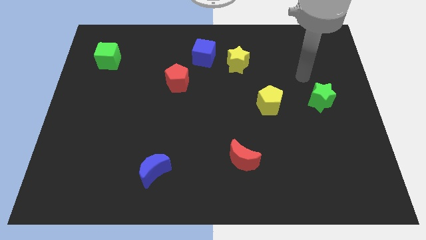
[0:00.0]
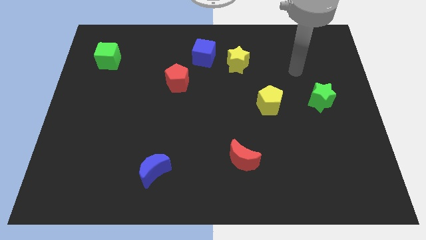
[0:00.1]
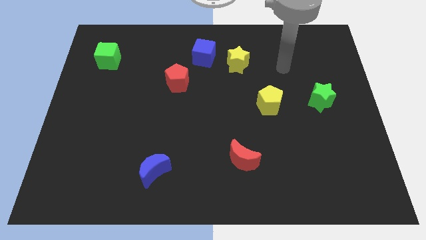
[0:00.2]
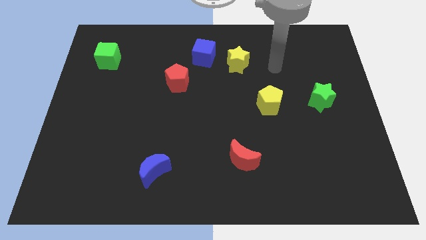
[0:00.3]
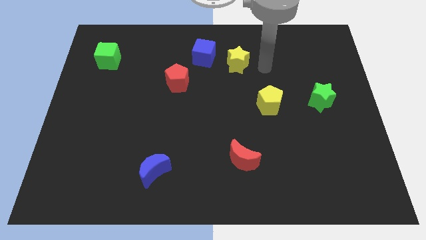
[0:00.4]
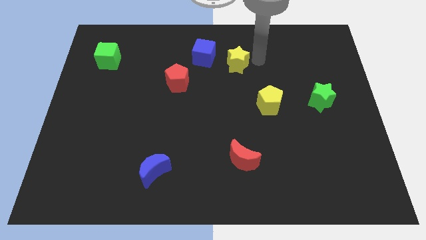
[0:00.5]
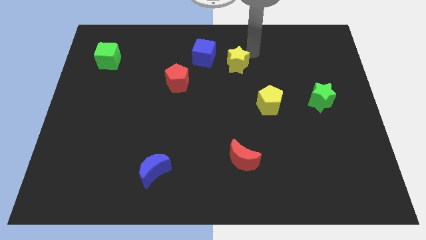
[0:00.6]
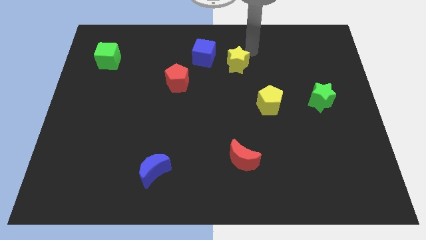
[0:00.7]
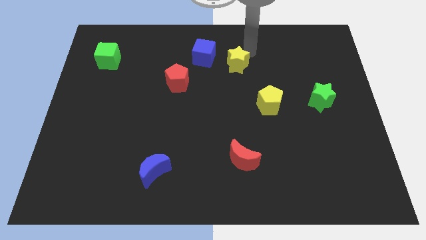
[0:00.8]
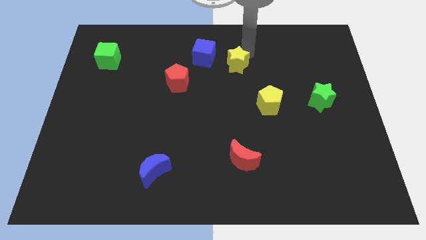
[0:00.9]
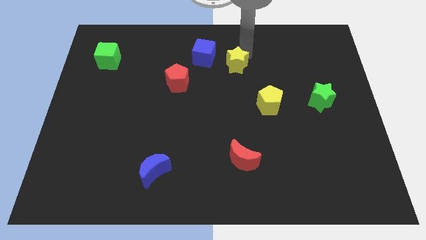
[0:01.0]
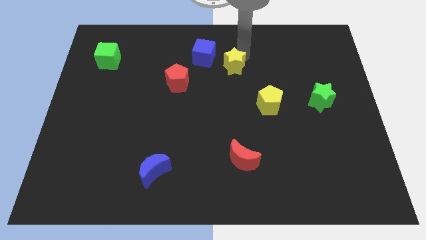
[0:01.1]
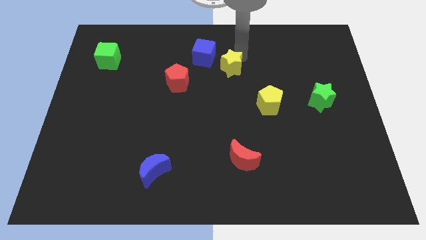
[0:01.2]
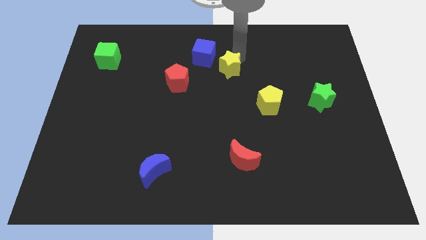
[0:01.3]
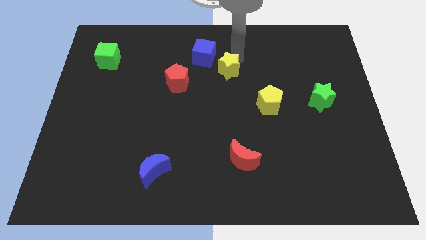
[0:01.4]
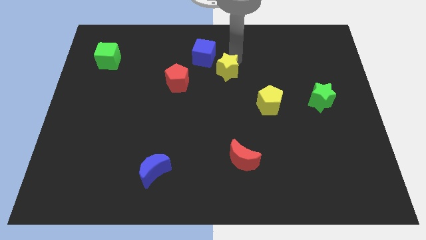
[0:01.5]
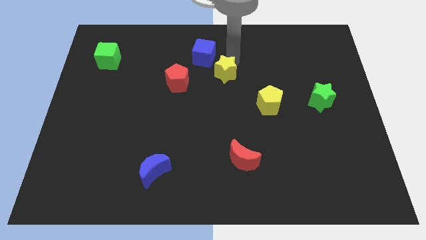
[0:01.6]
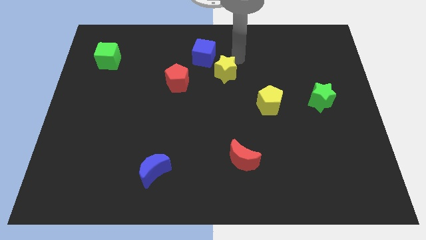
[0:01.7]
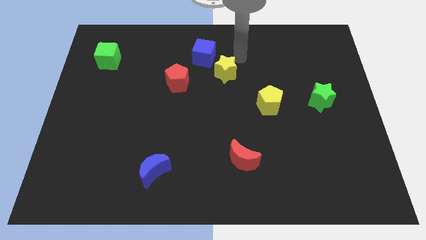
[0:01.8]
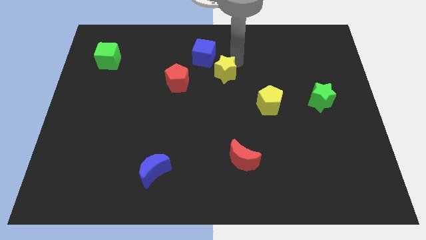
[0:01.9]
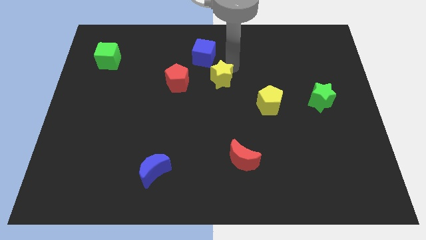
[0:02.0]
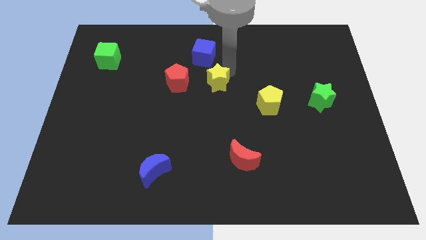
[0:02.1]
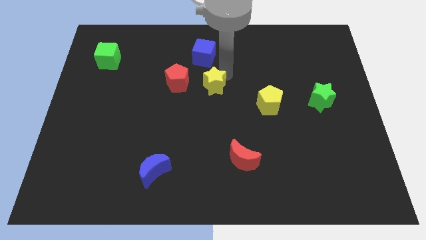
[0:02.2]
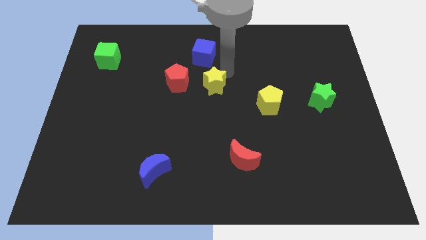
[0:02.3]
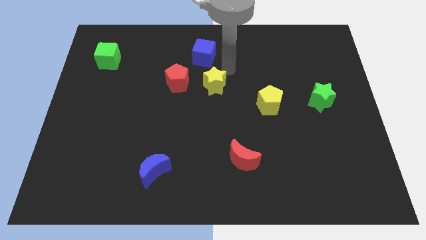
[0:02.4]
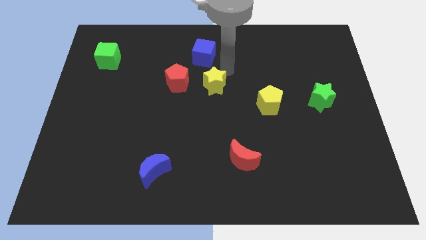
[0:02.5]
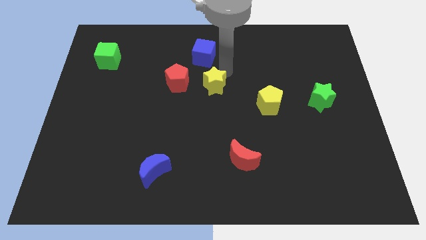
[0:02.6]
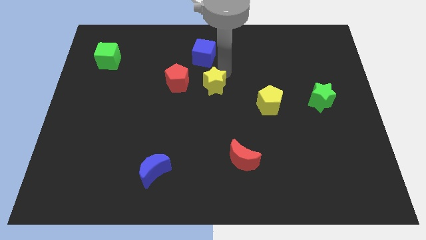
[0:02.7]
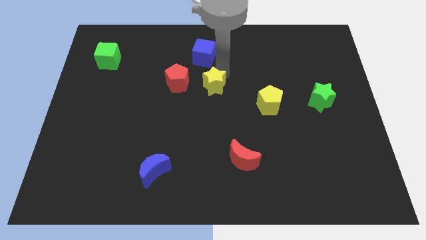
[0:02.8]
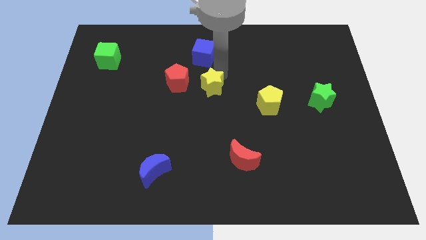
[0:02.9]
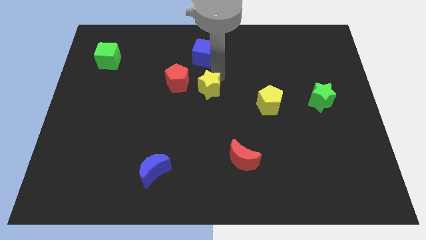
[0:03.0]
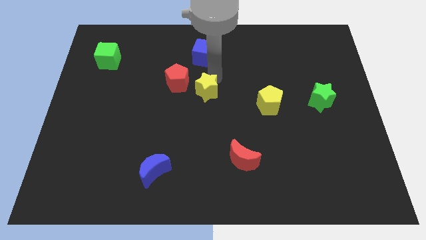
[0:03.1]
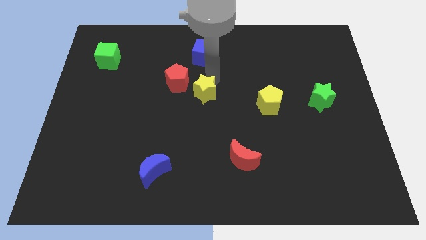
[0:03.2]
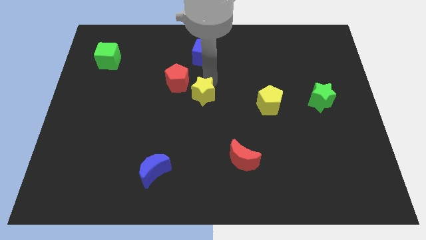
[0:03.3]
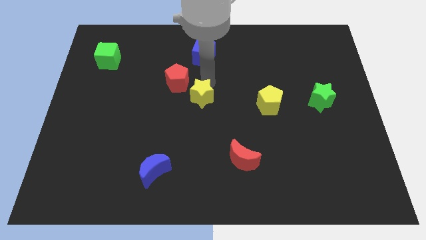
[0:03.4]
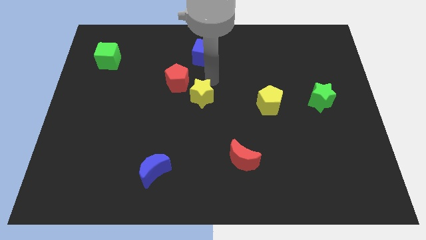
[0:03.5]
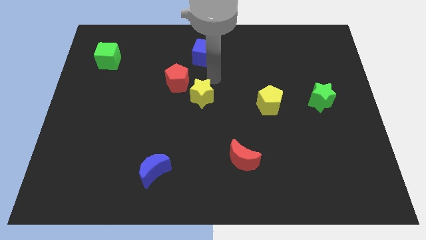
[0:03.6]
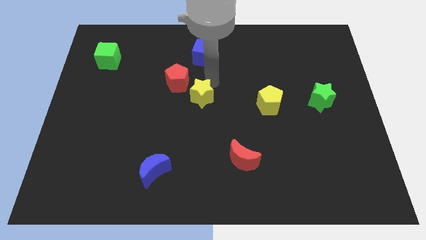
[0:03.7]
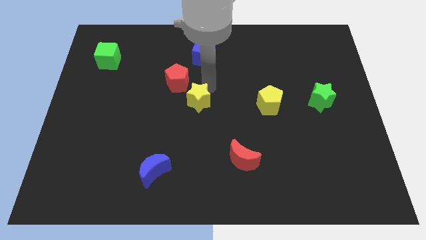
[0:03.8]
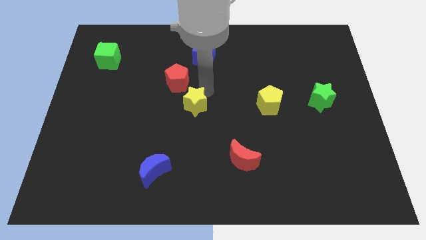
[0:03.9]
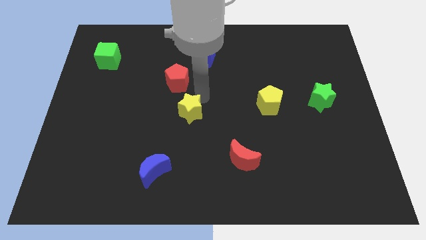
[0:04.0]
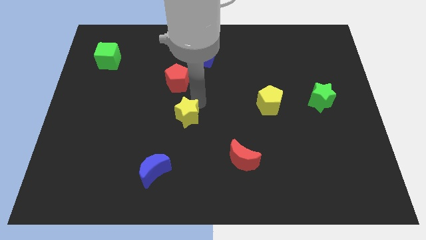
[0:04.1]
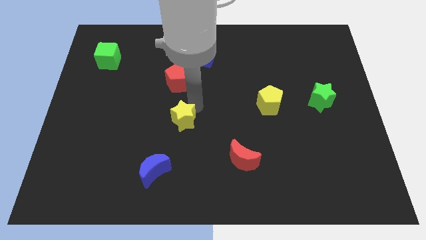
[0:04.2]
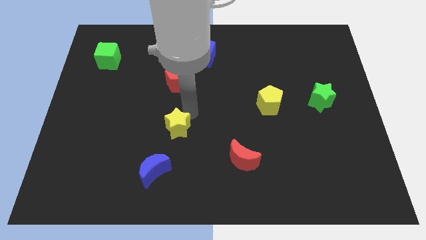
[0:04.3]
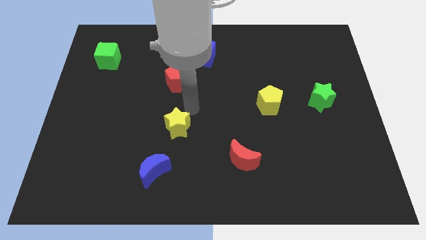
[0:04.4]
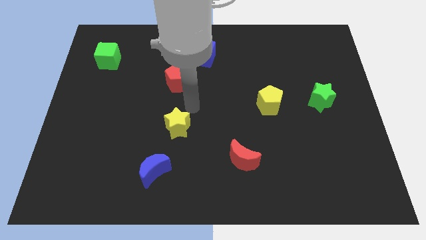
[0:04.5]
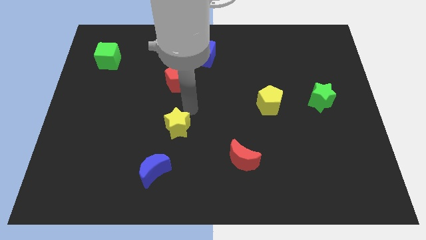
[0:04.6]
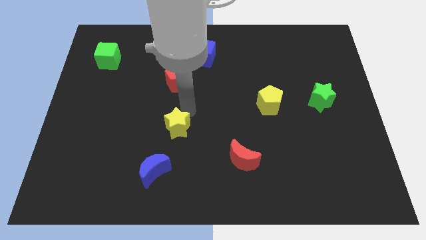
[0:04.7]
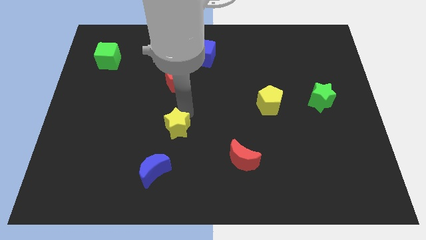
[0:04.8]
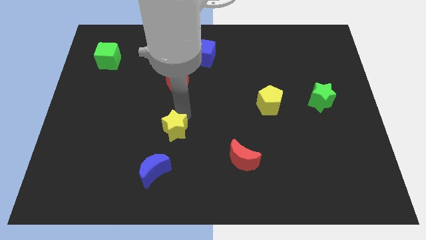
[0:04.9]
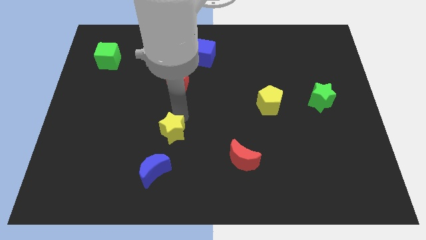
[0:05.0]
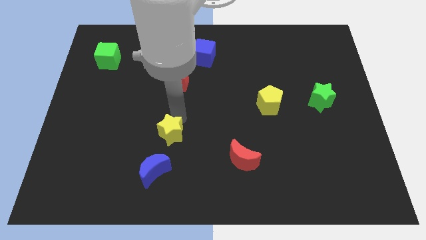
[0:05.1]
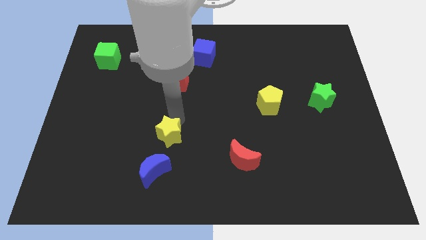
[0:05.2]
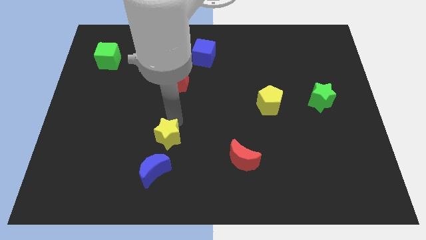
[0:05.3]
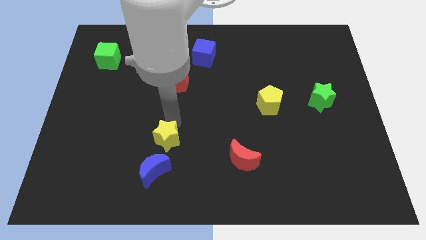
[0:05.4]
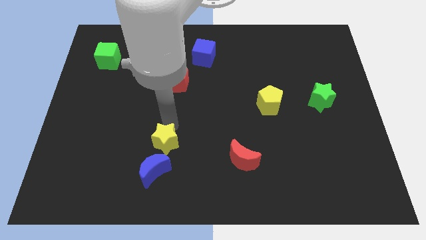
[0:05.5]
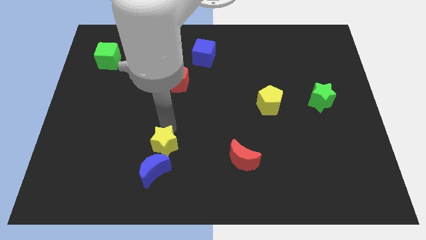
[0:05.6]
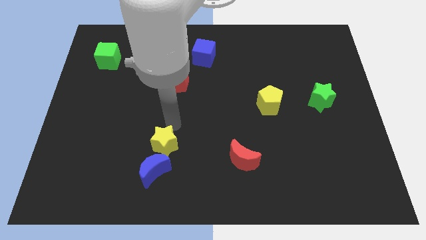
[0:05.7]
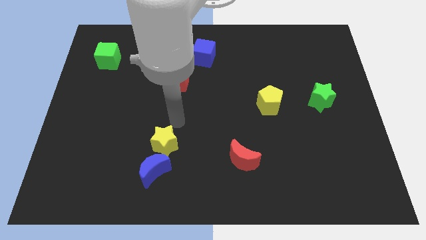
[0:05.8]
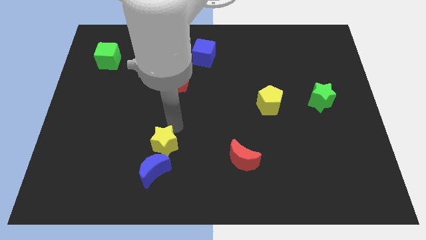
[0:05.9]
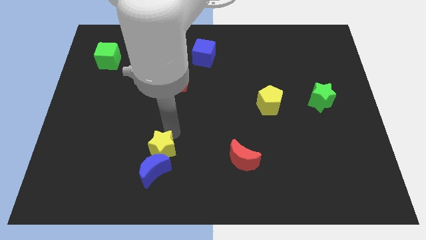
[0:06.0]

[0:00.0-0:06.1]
slide the yellow star next to the blue moon

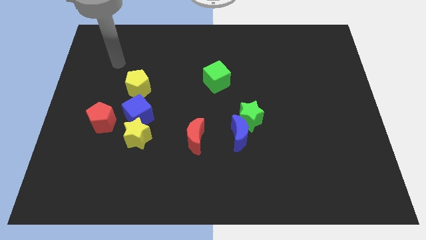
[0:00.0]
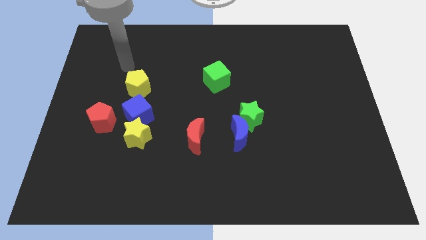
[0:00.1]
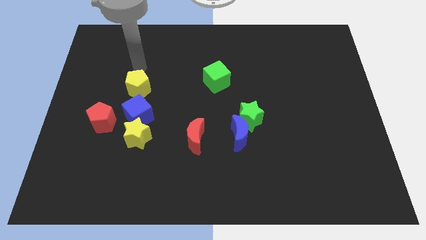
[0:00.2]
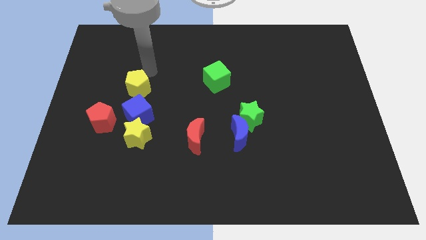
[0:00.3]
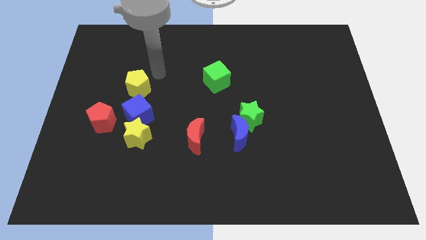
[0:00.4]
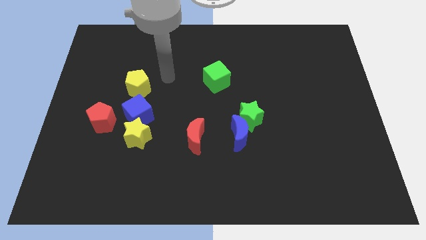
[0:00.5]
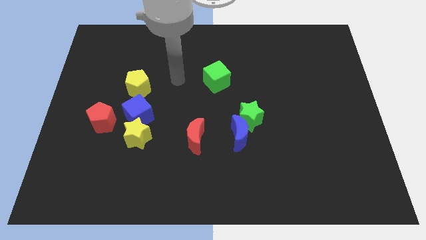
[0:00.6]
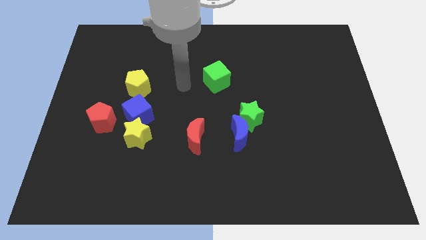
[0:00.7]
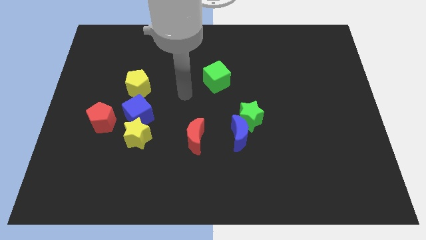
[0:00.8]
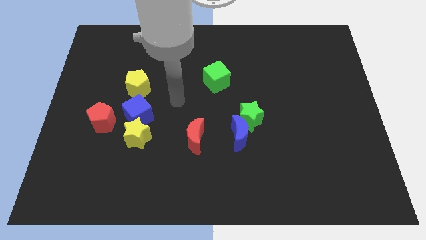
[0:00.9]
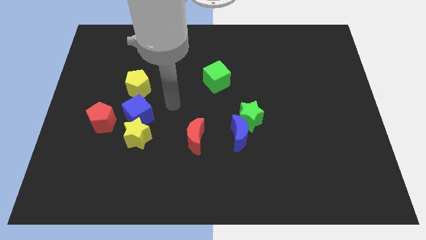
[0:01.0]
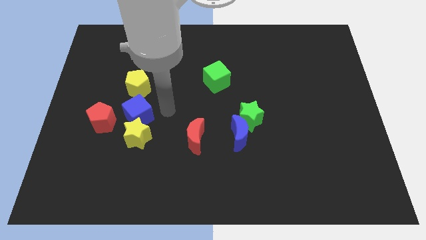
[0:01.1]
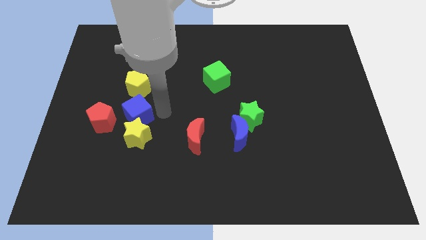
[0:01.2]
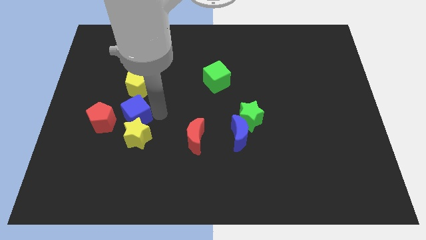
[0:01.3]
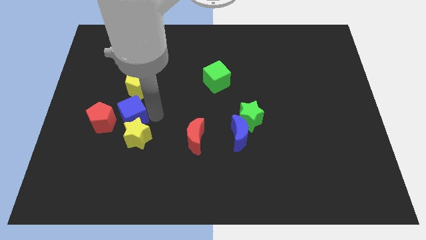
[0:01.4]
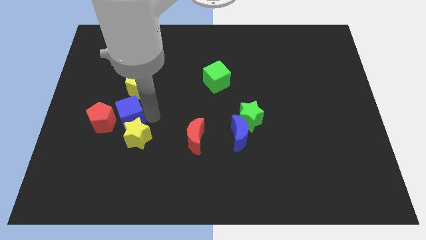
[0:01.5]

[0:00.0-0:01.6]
move the blue cube to the red pentagon

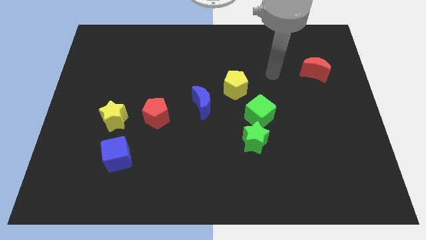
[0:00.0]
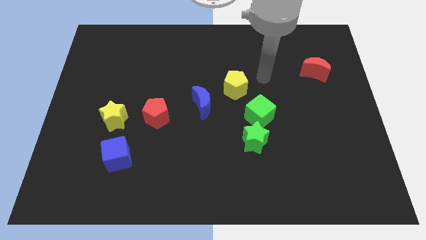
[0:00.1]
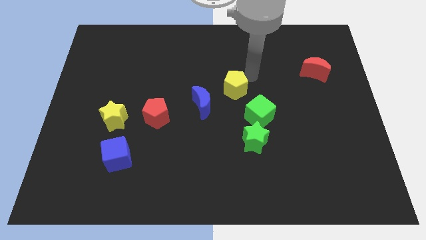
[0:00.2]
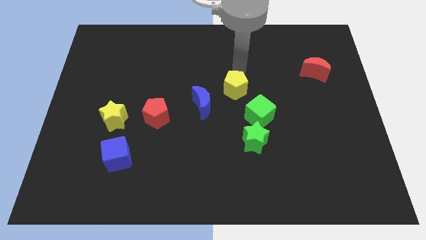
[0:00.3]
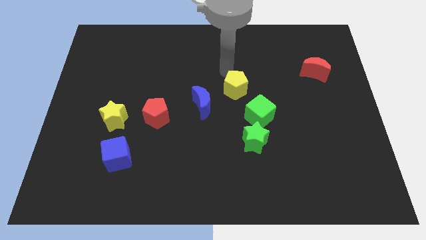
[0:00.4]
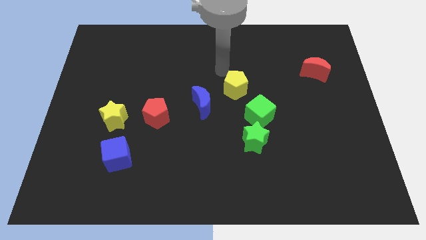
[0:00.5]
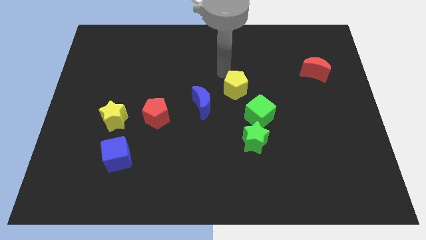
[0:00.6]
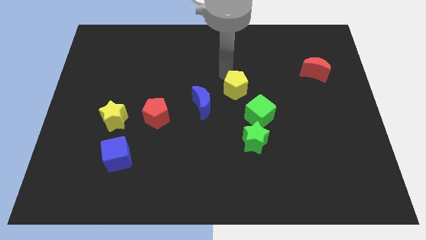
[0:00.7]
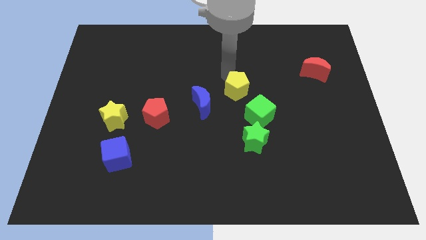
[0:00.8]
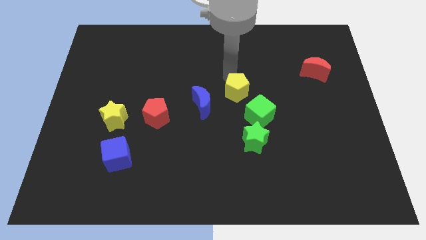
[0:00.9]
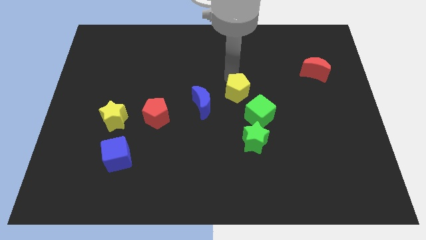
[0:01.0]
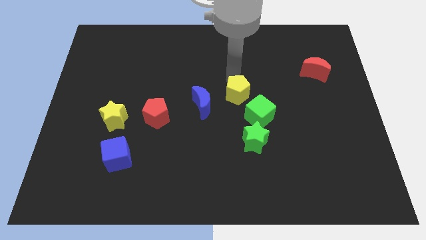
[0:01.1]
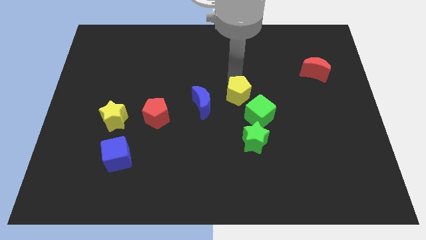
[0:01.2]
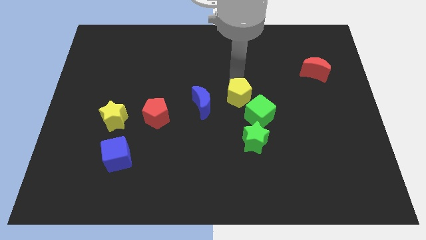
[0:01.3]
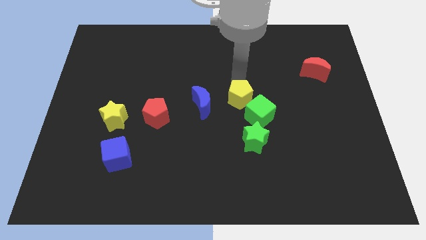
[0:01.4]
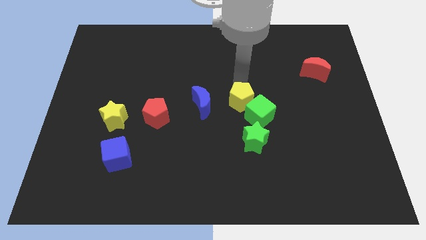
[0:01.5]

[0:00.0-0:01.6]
push the yellow pentagon close to the green cube
